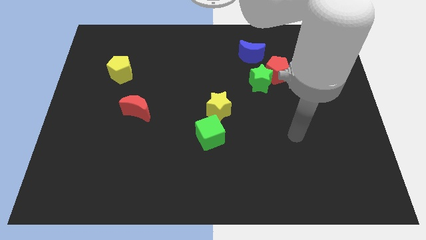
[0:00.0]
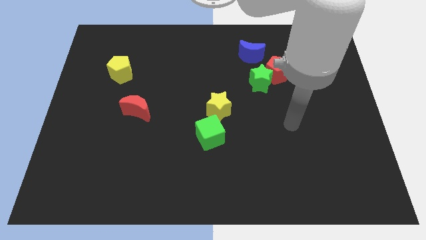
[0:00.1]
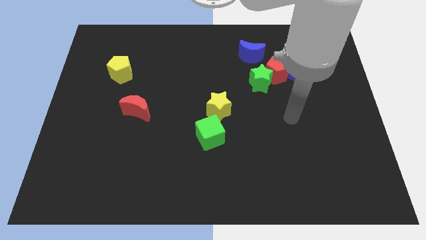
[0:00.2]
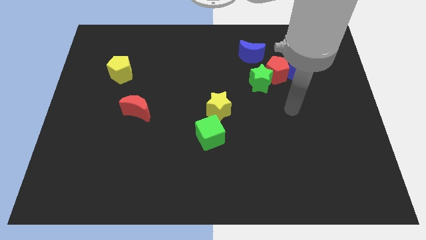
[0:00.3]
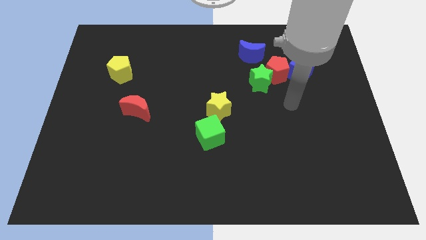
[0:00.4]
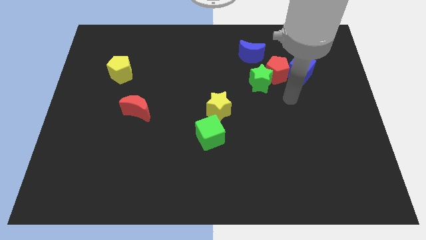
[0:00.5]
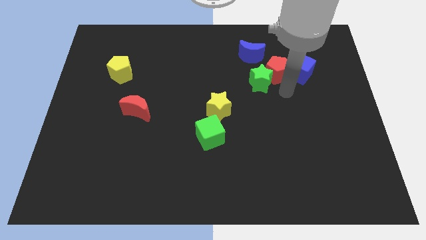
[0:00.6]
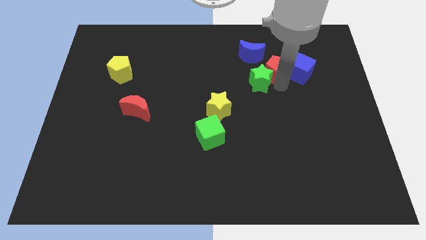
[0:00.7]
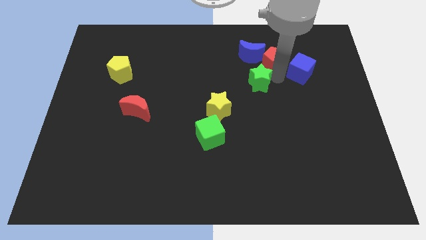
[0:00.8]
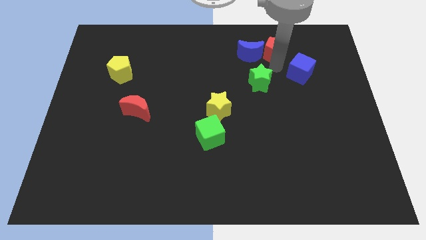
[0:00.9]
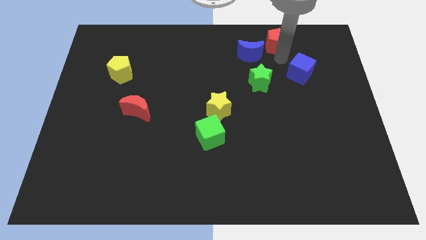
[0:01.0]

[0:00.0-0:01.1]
pull the blue cube apart from the red pentagon

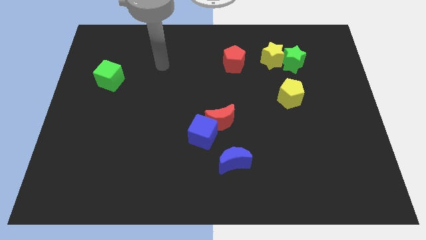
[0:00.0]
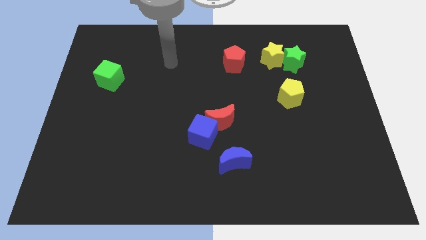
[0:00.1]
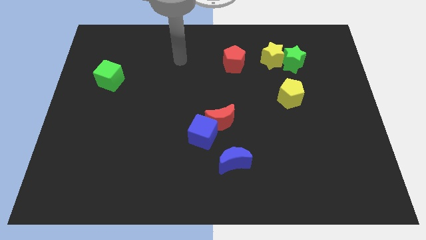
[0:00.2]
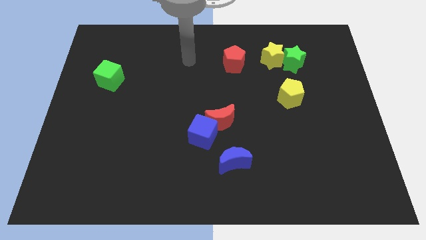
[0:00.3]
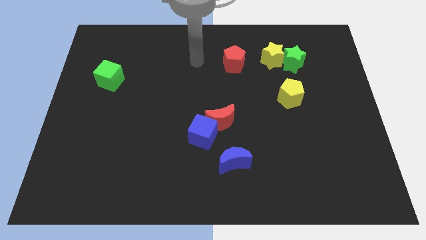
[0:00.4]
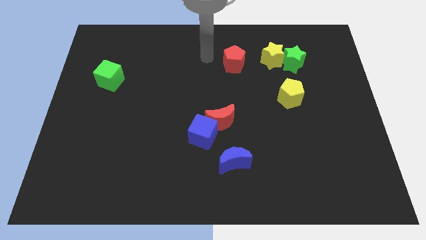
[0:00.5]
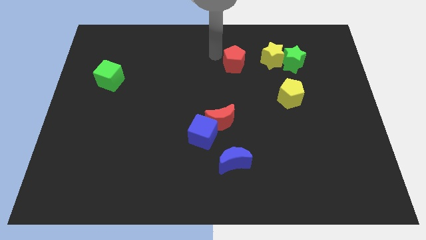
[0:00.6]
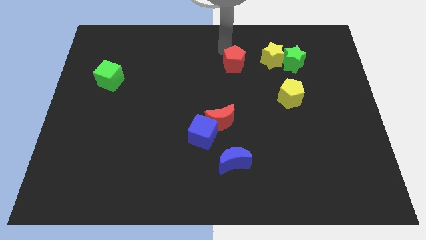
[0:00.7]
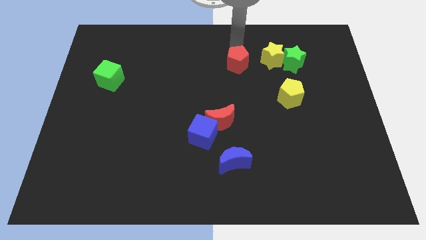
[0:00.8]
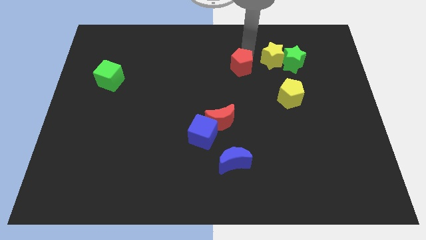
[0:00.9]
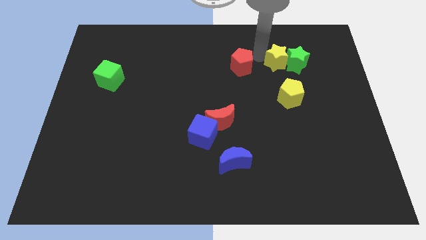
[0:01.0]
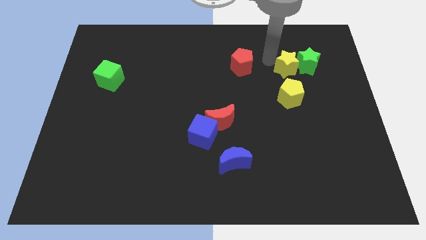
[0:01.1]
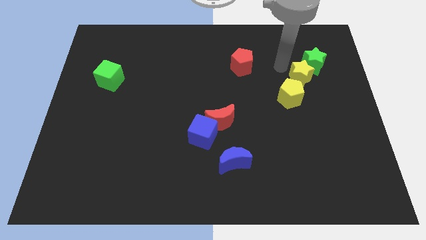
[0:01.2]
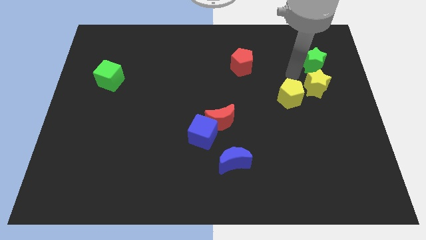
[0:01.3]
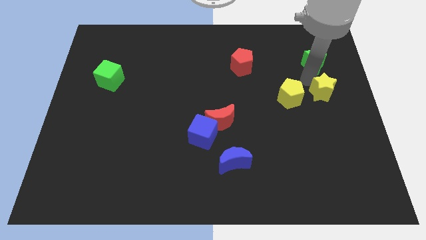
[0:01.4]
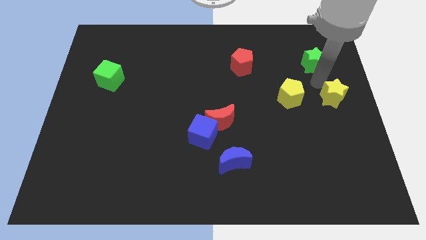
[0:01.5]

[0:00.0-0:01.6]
pull the green star apart from the yellow star

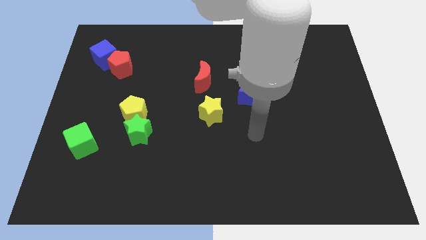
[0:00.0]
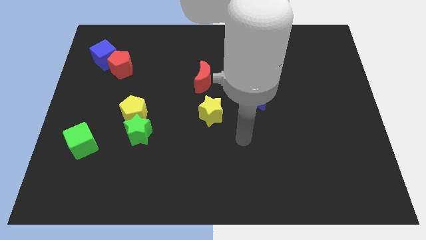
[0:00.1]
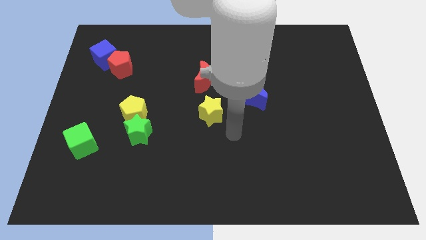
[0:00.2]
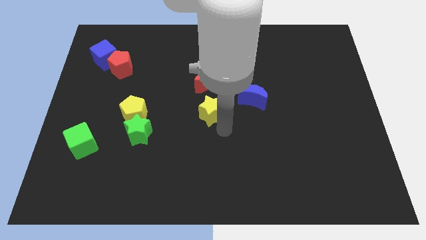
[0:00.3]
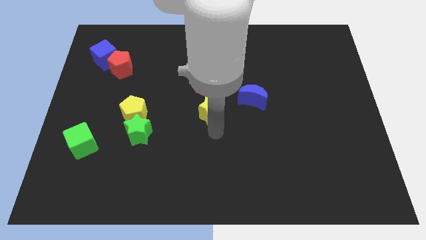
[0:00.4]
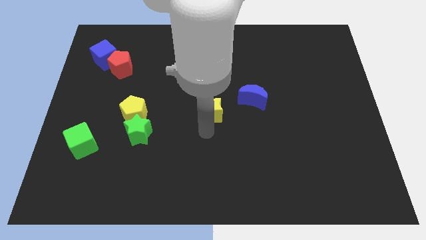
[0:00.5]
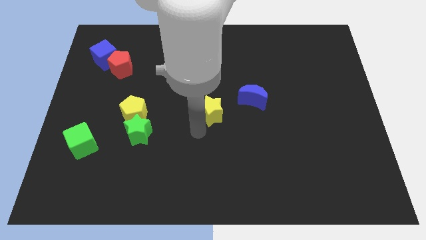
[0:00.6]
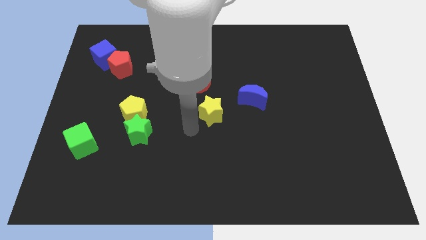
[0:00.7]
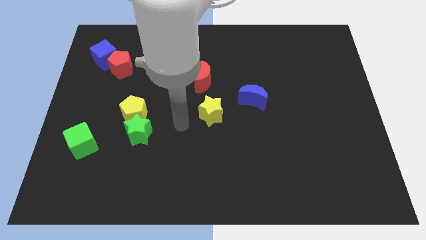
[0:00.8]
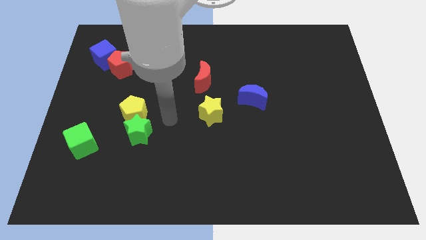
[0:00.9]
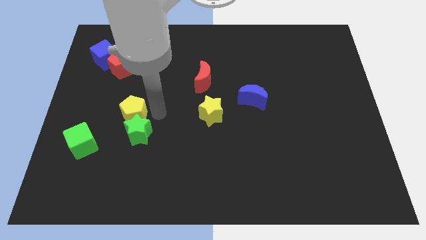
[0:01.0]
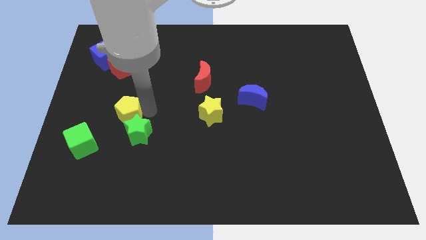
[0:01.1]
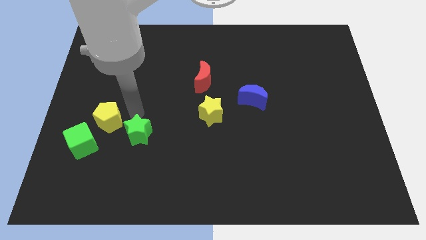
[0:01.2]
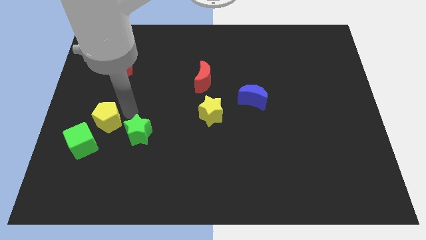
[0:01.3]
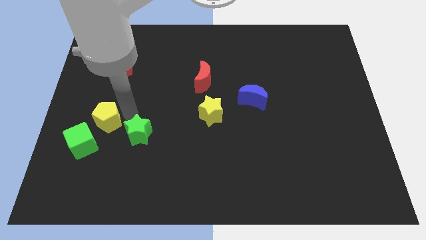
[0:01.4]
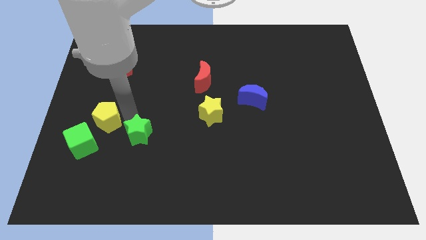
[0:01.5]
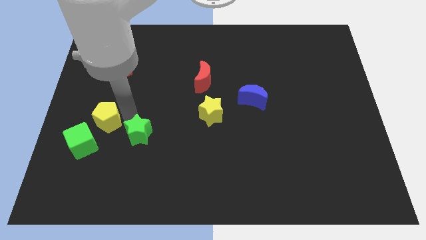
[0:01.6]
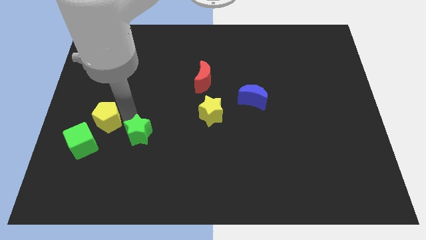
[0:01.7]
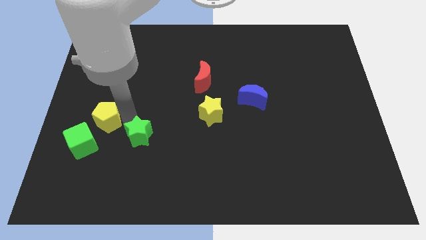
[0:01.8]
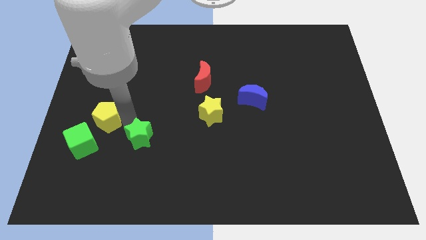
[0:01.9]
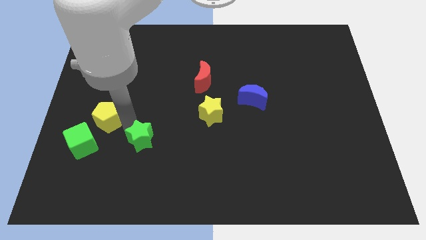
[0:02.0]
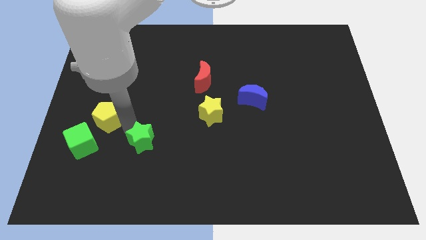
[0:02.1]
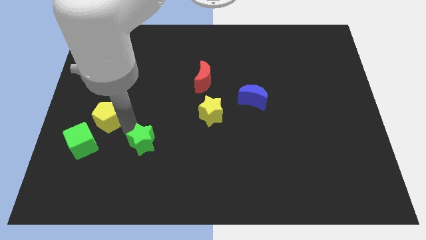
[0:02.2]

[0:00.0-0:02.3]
move the green star away from the yellow pentagon

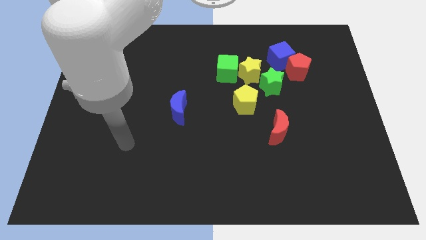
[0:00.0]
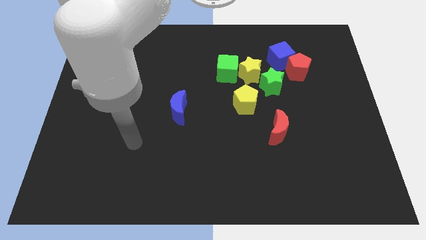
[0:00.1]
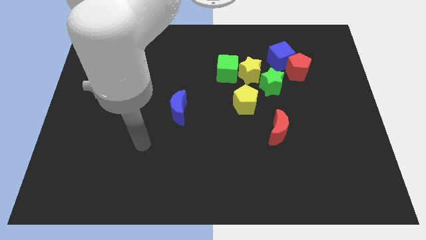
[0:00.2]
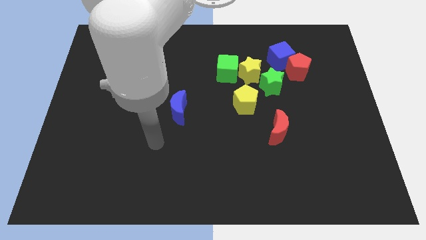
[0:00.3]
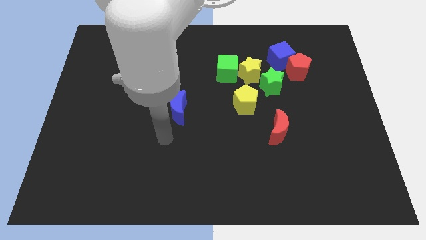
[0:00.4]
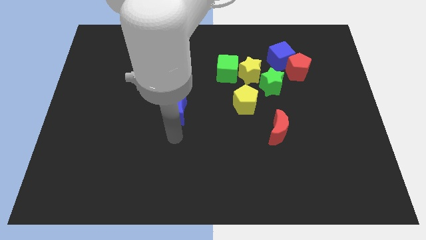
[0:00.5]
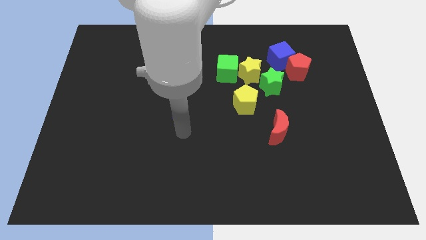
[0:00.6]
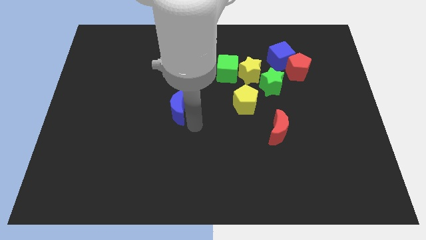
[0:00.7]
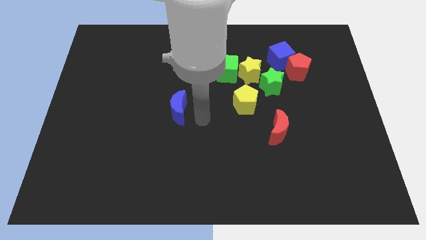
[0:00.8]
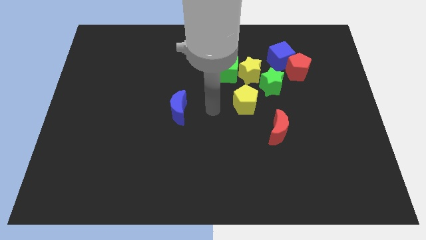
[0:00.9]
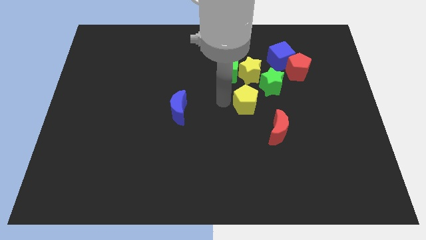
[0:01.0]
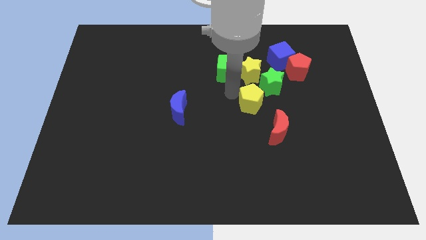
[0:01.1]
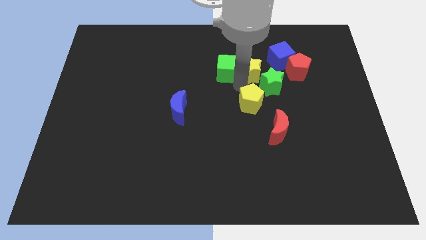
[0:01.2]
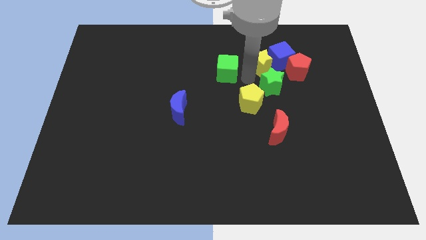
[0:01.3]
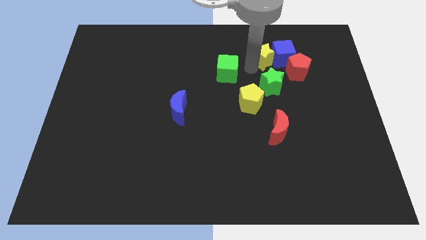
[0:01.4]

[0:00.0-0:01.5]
pull the green cube apart from the yellow star

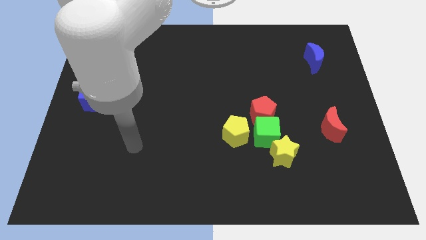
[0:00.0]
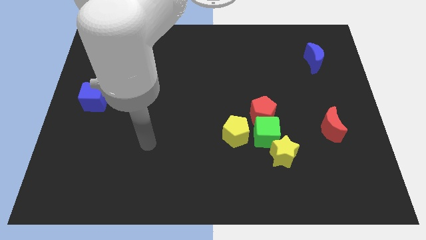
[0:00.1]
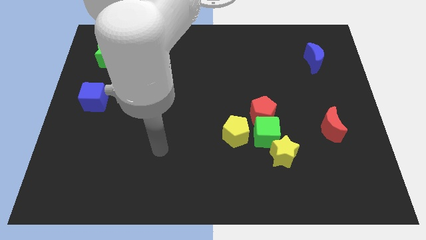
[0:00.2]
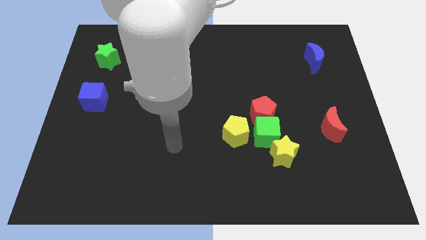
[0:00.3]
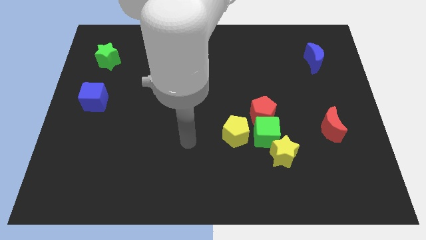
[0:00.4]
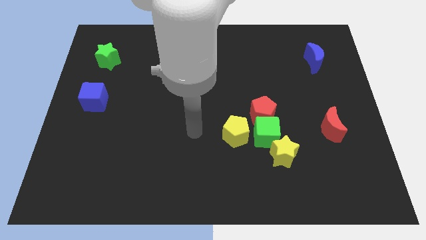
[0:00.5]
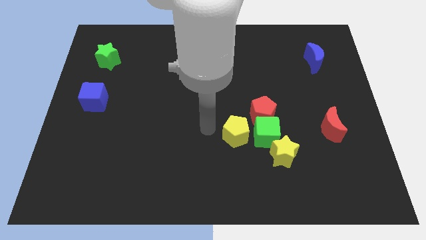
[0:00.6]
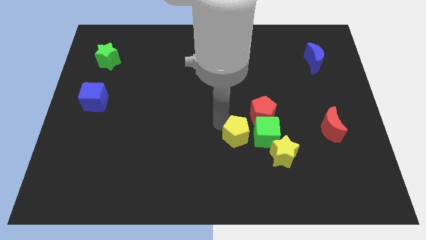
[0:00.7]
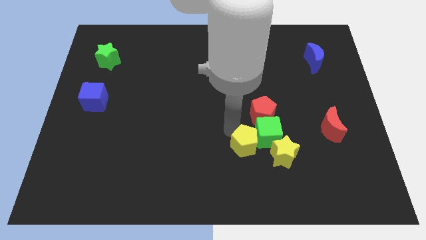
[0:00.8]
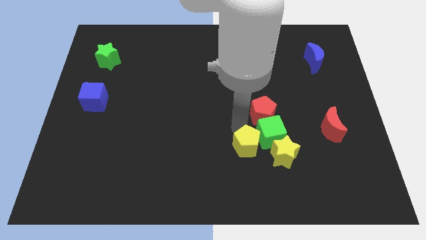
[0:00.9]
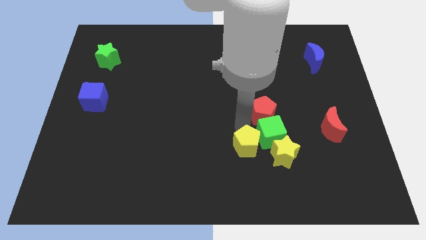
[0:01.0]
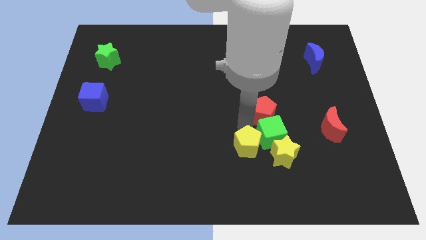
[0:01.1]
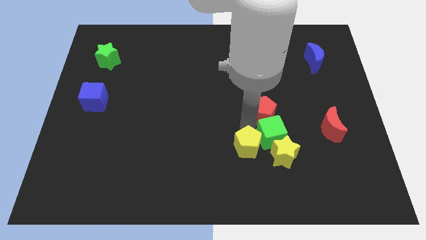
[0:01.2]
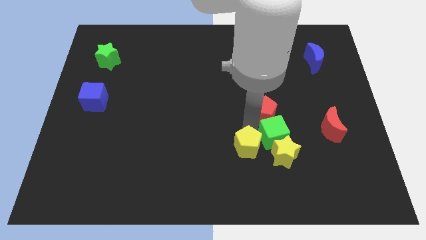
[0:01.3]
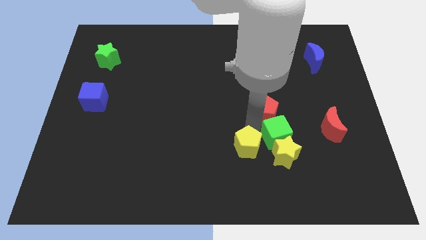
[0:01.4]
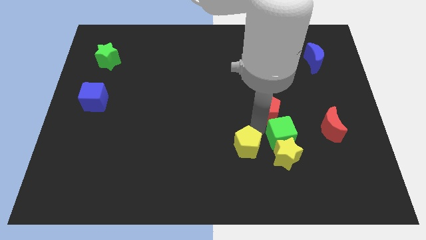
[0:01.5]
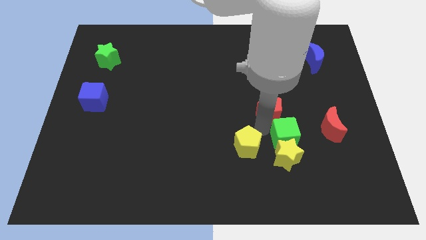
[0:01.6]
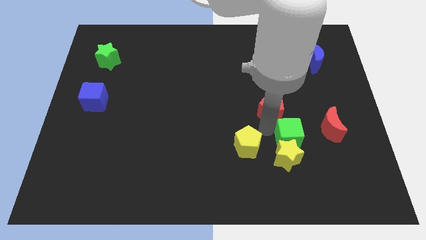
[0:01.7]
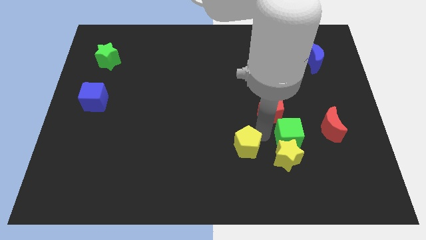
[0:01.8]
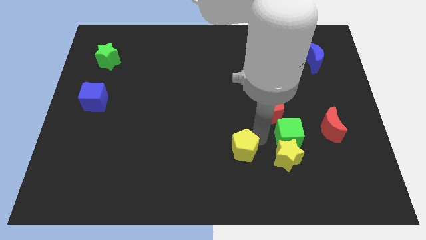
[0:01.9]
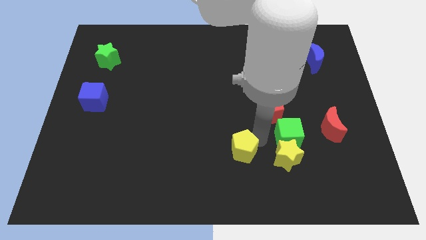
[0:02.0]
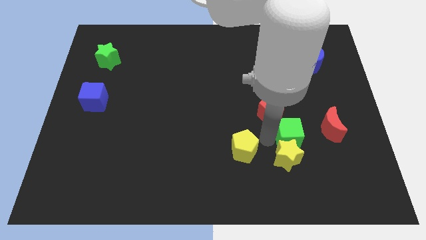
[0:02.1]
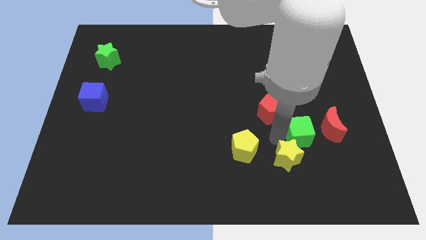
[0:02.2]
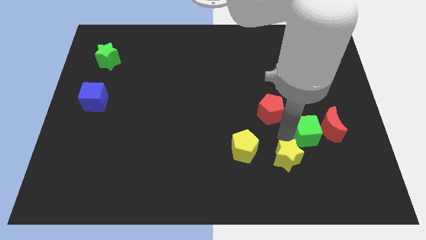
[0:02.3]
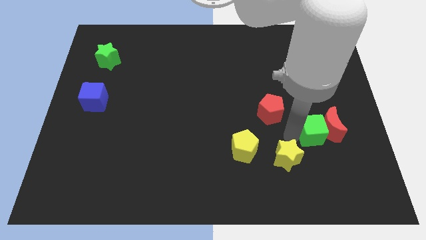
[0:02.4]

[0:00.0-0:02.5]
separate the green cube from the clump

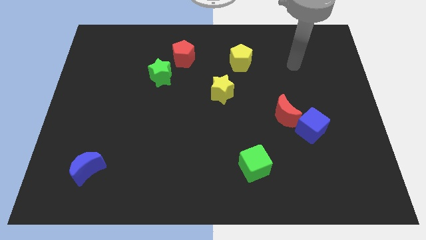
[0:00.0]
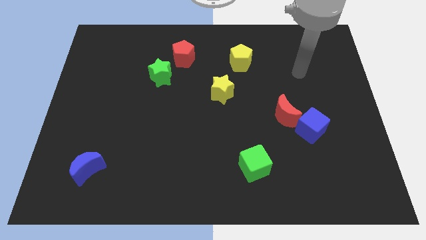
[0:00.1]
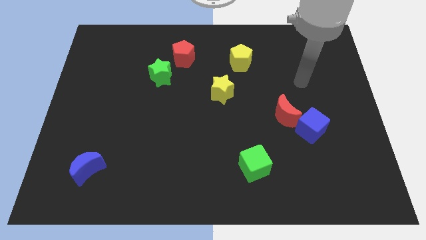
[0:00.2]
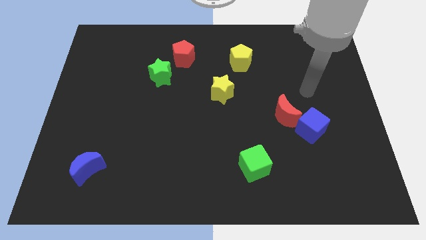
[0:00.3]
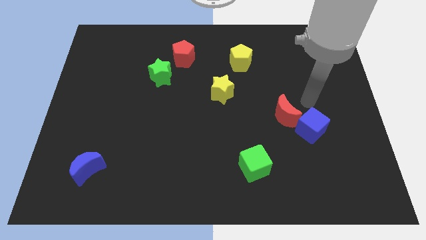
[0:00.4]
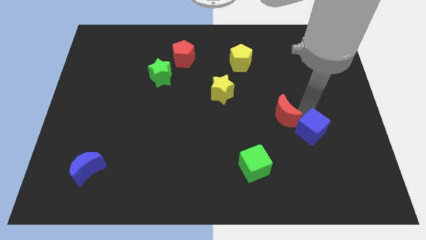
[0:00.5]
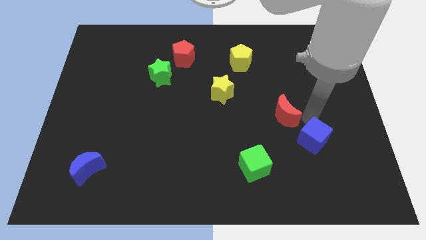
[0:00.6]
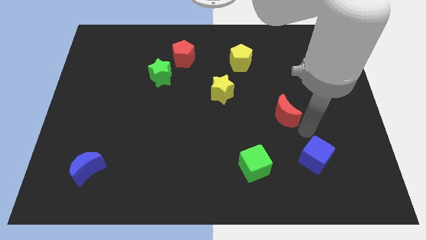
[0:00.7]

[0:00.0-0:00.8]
separate the red moon from the blue cube